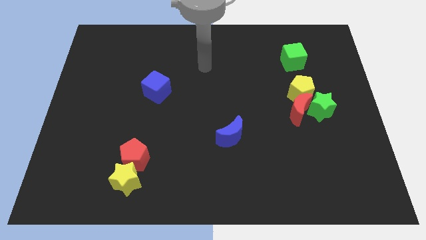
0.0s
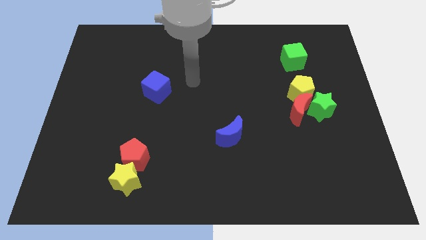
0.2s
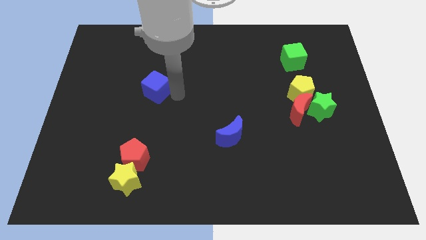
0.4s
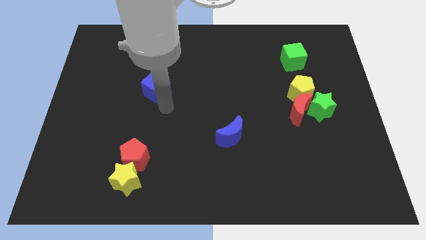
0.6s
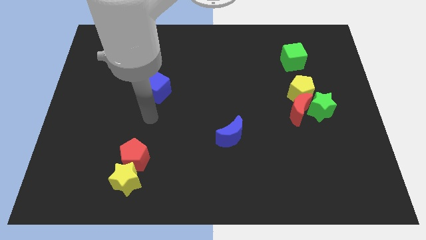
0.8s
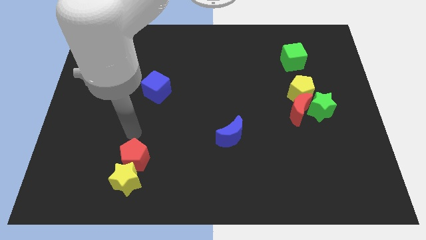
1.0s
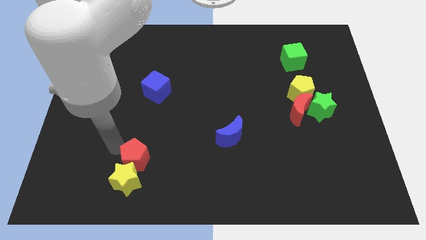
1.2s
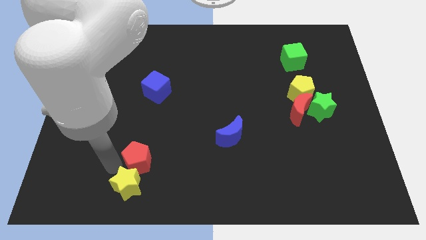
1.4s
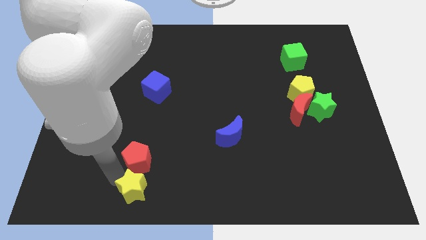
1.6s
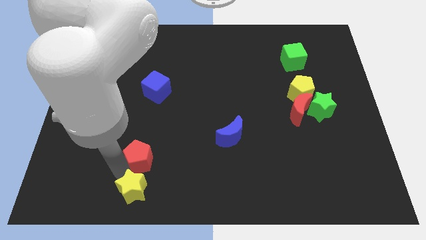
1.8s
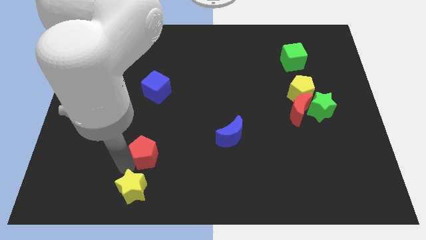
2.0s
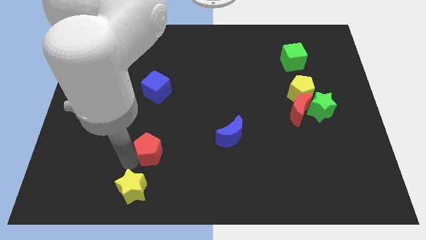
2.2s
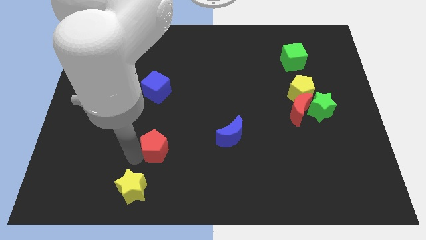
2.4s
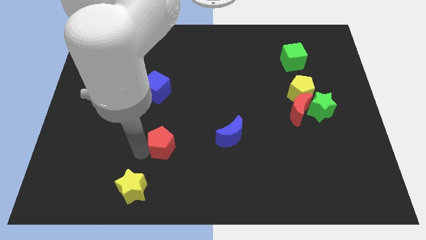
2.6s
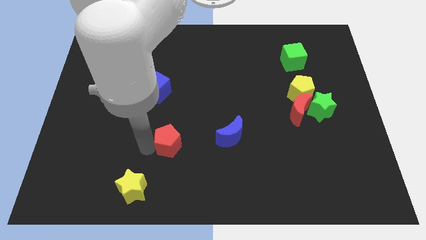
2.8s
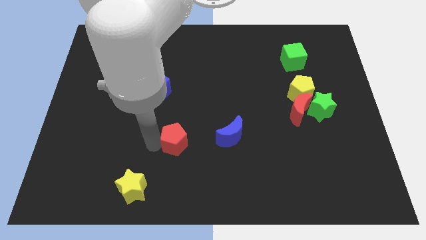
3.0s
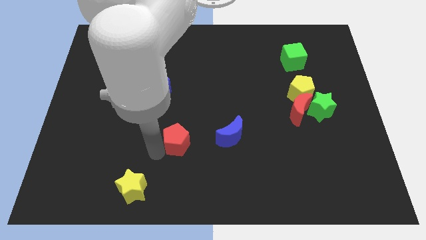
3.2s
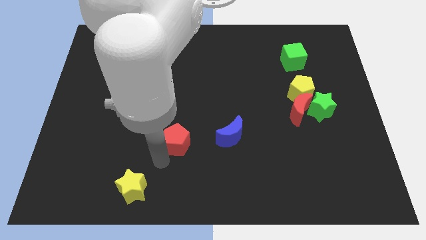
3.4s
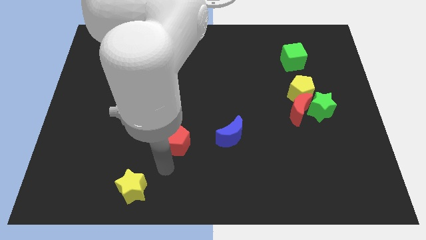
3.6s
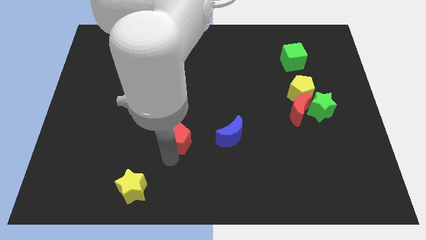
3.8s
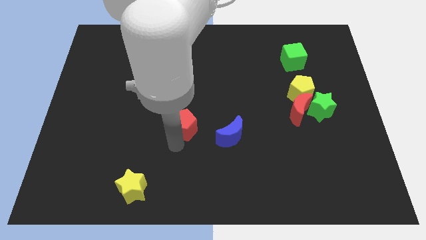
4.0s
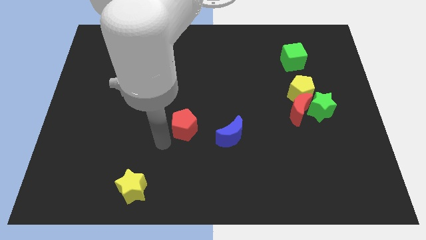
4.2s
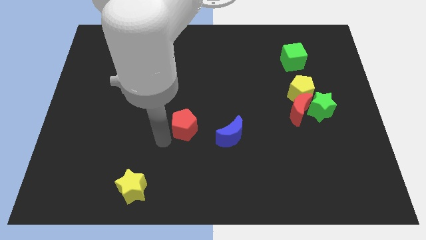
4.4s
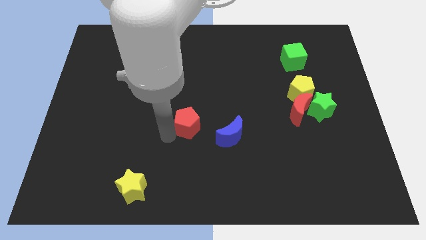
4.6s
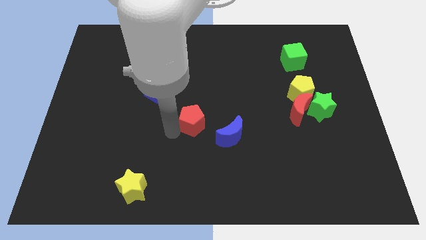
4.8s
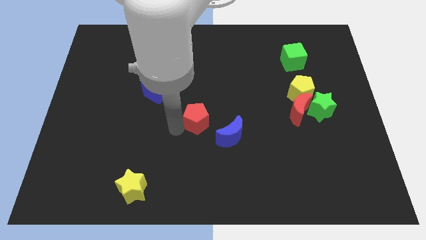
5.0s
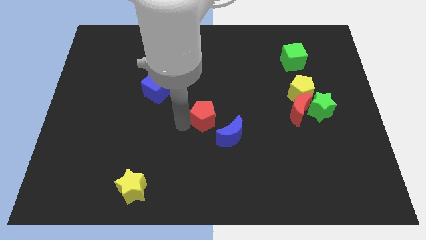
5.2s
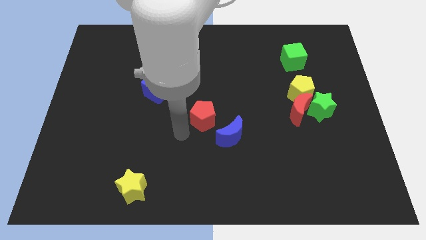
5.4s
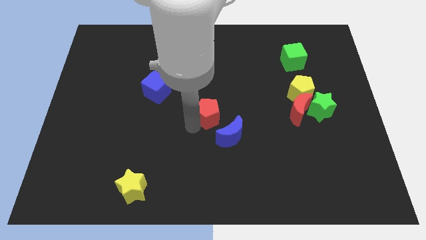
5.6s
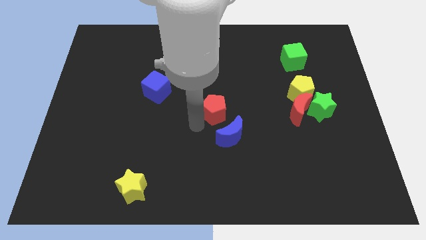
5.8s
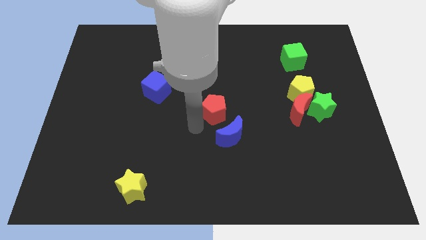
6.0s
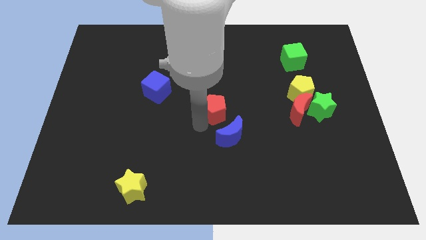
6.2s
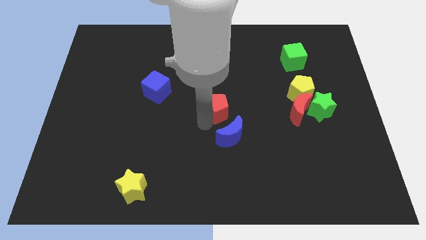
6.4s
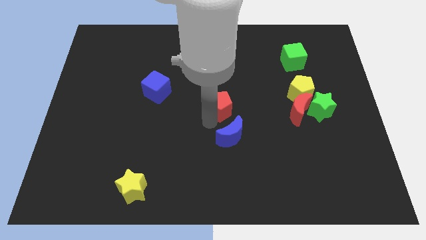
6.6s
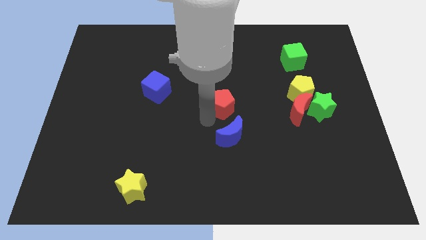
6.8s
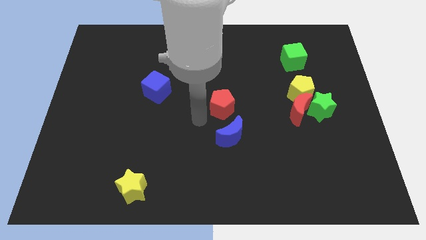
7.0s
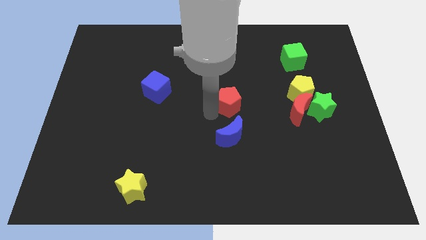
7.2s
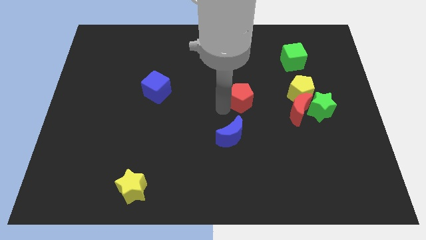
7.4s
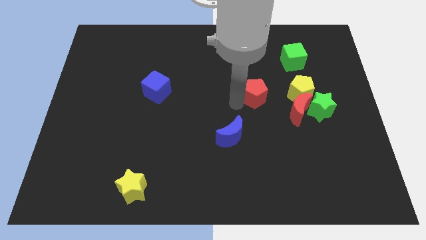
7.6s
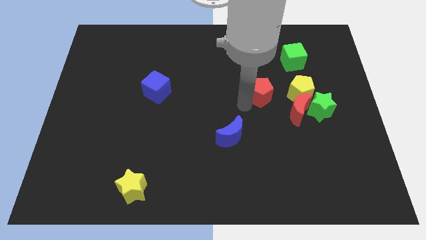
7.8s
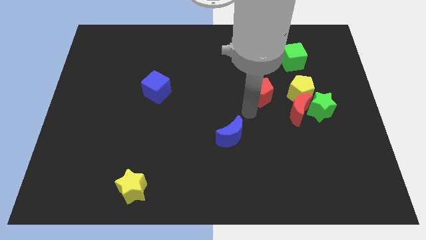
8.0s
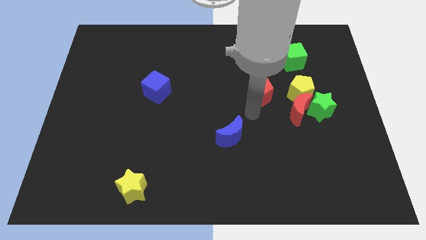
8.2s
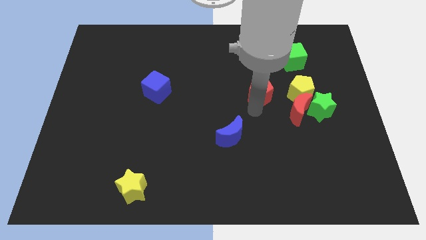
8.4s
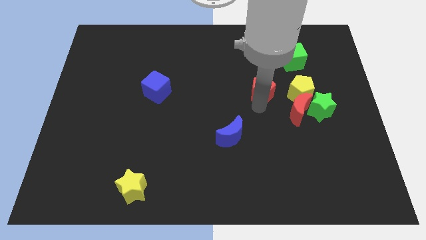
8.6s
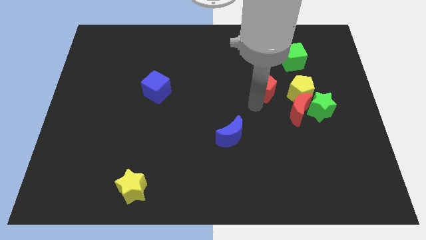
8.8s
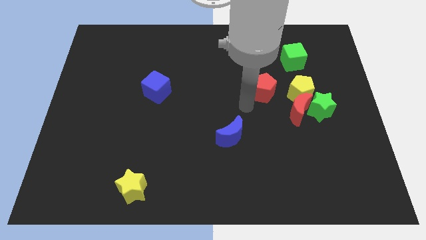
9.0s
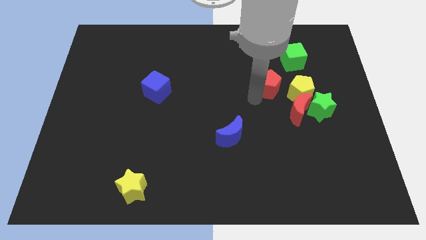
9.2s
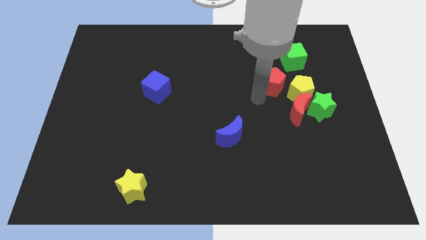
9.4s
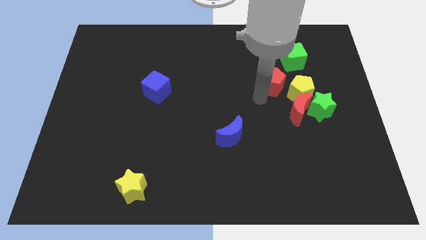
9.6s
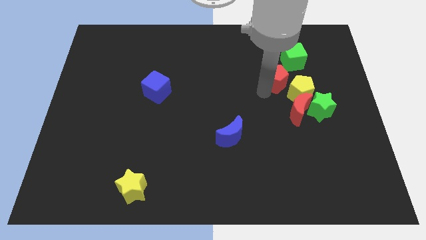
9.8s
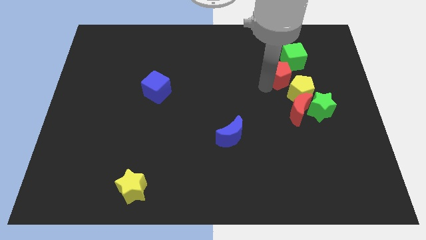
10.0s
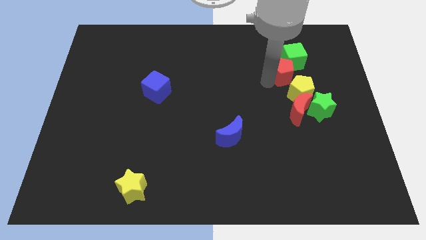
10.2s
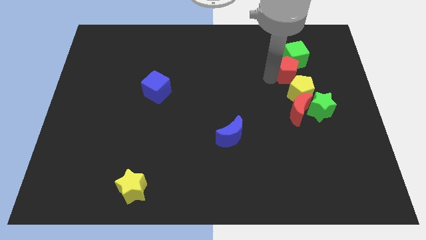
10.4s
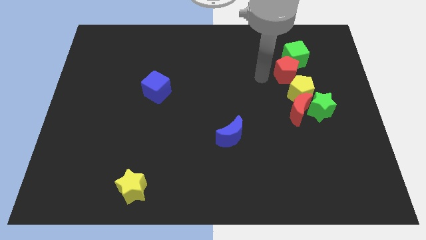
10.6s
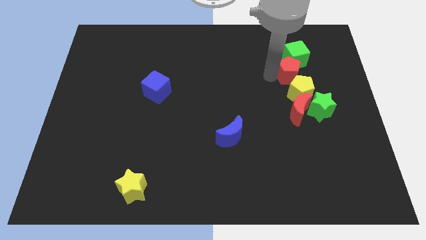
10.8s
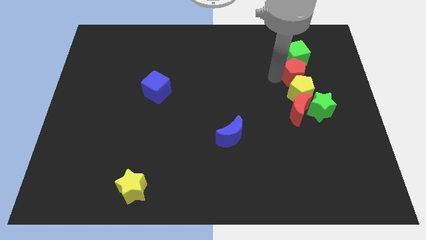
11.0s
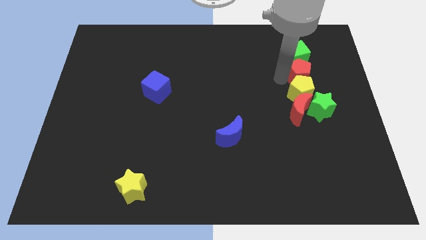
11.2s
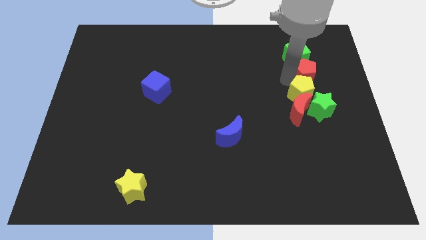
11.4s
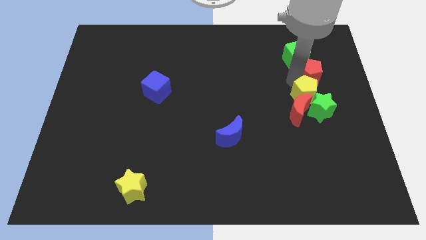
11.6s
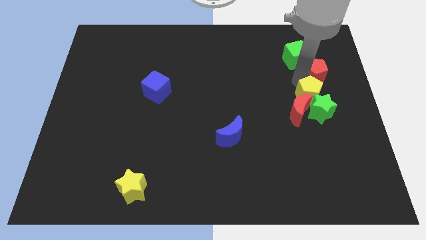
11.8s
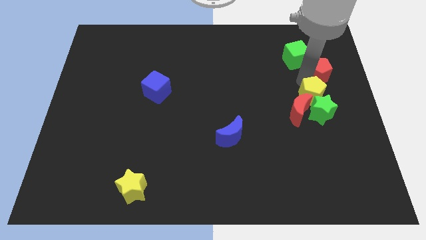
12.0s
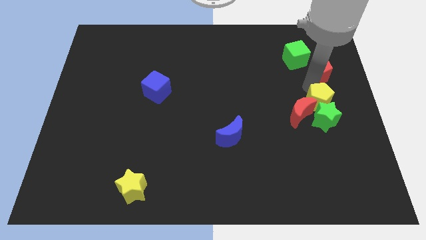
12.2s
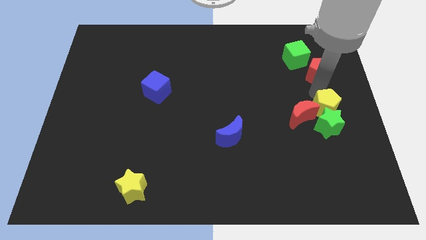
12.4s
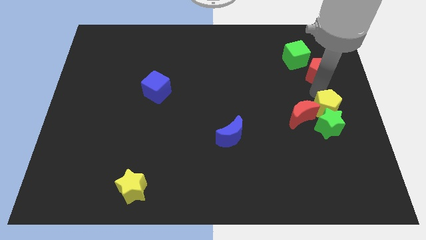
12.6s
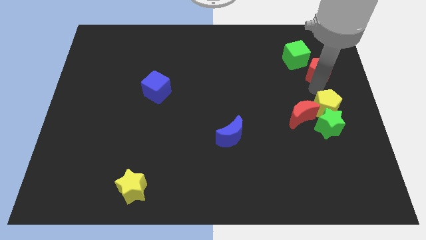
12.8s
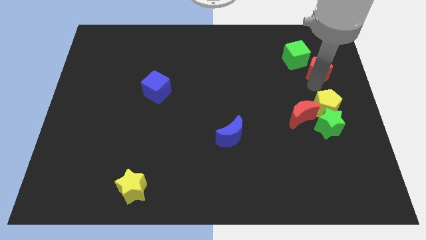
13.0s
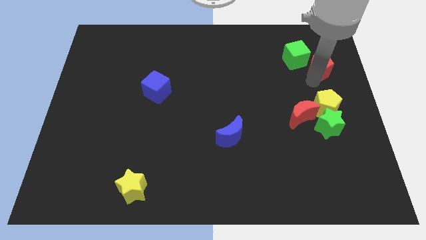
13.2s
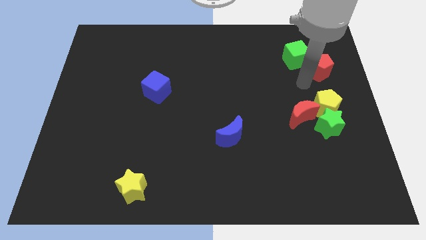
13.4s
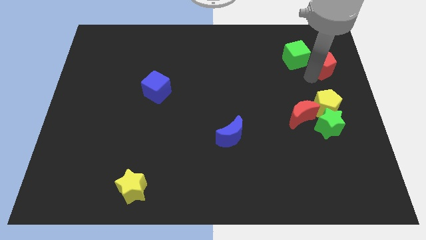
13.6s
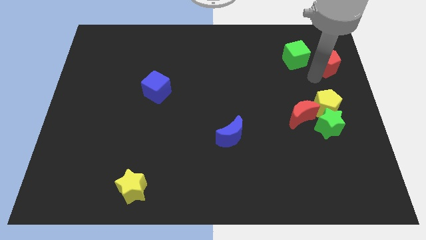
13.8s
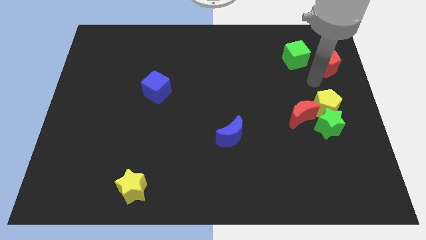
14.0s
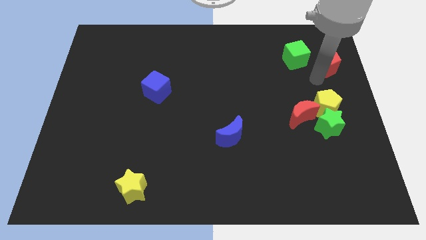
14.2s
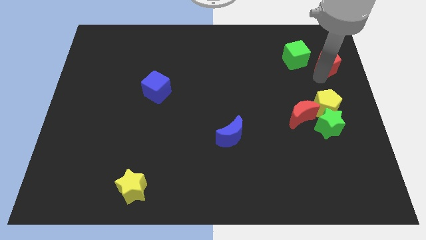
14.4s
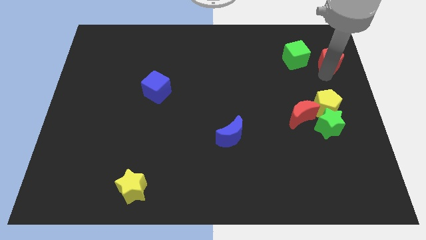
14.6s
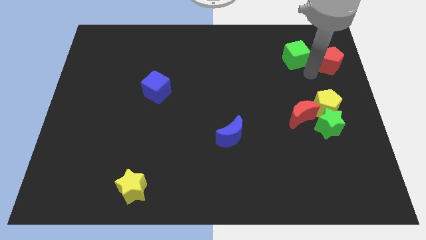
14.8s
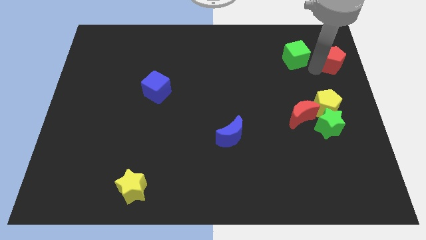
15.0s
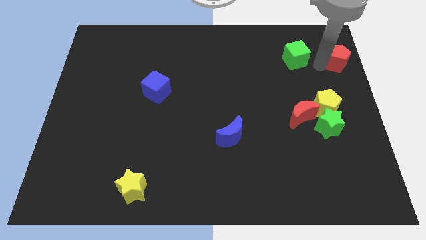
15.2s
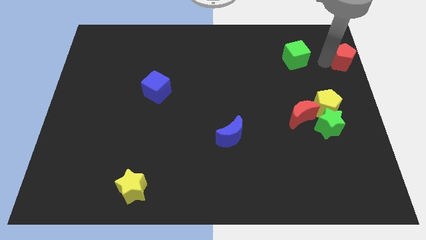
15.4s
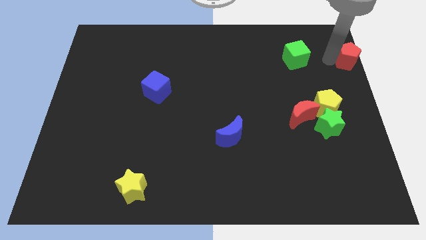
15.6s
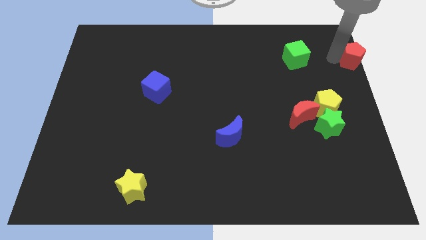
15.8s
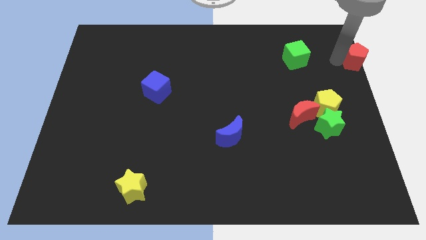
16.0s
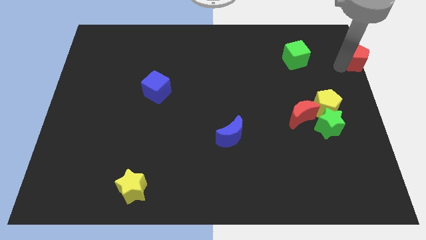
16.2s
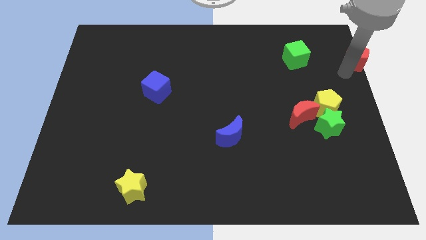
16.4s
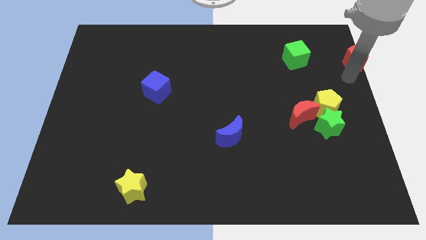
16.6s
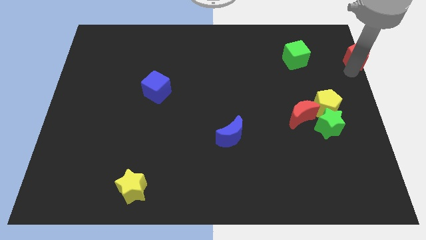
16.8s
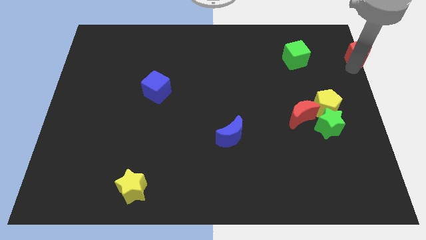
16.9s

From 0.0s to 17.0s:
push the red pentagon to the upper right corner
